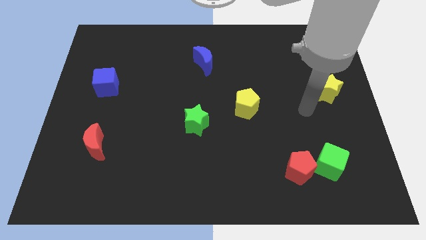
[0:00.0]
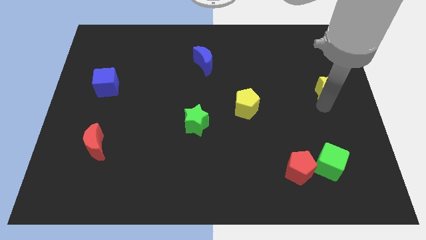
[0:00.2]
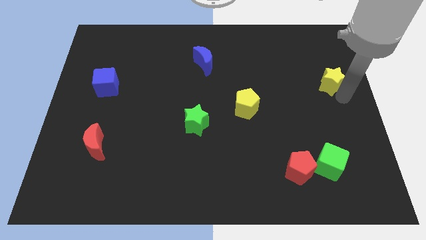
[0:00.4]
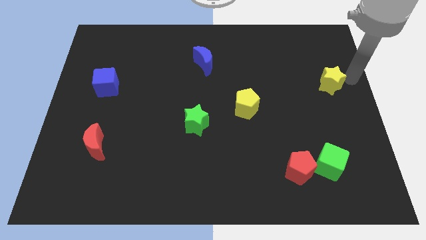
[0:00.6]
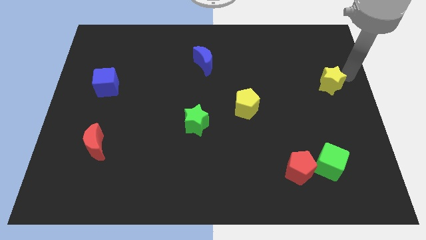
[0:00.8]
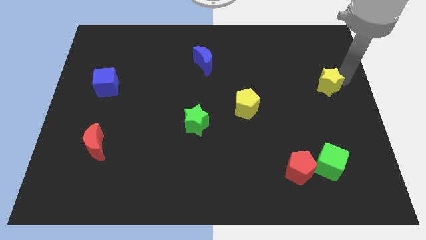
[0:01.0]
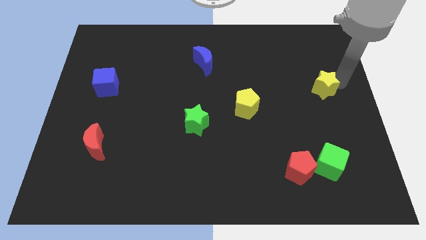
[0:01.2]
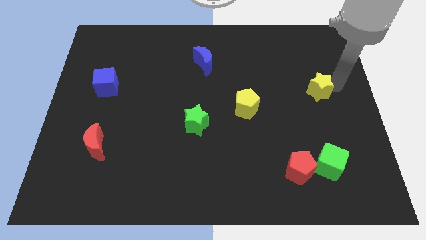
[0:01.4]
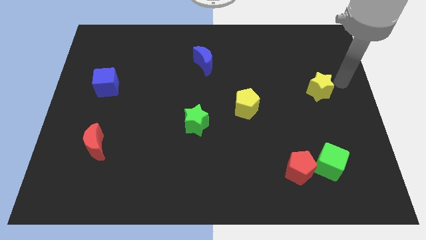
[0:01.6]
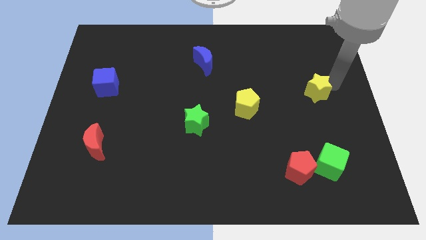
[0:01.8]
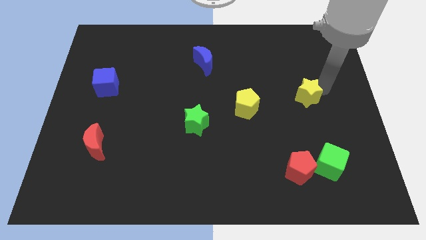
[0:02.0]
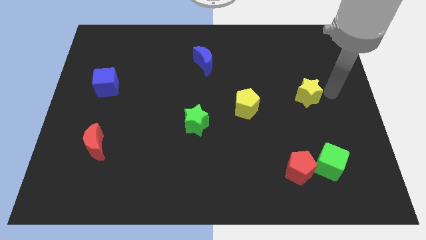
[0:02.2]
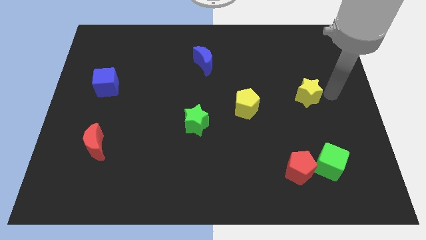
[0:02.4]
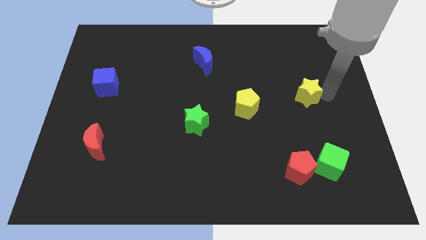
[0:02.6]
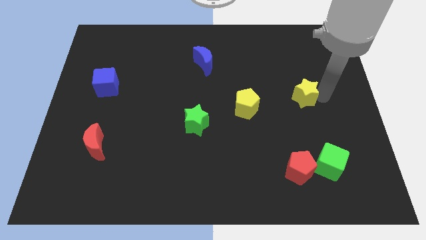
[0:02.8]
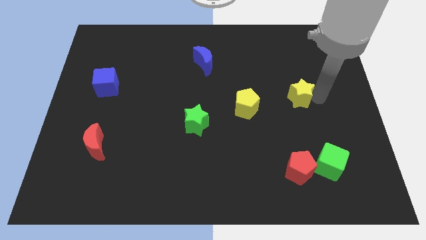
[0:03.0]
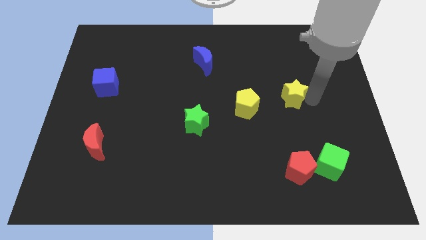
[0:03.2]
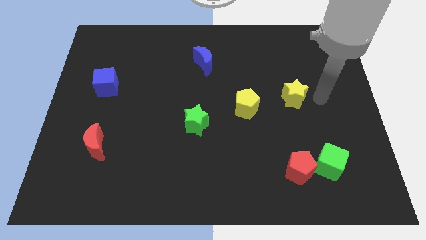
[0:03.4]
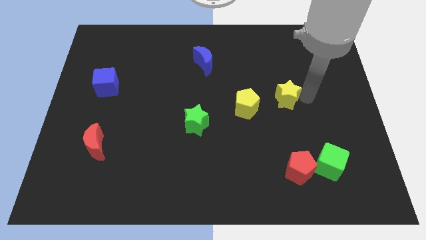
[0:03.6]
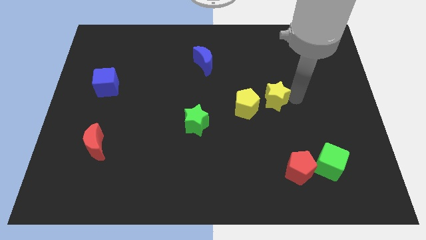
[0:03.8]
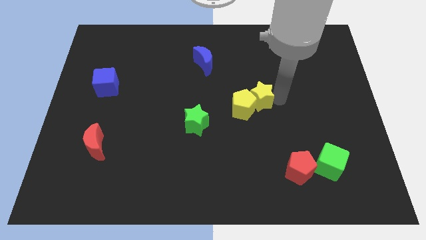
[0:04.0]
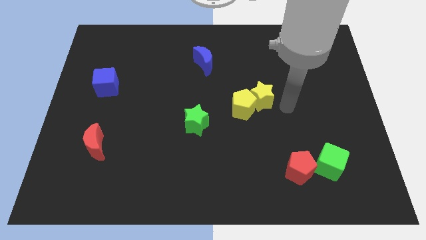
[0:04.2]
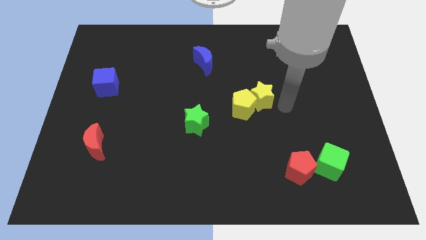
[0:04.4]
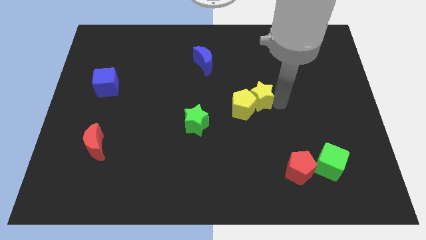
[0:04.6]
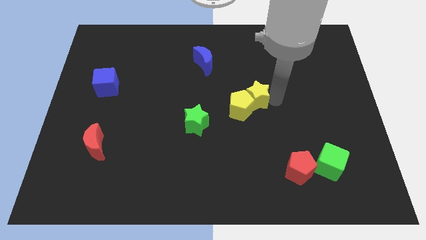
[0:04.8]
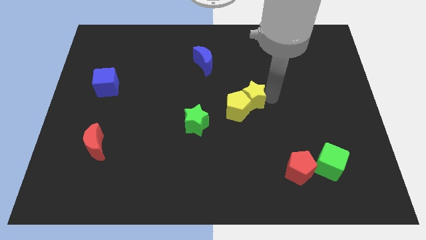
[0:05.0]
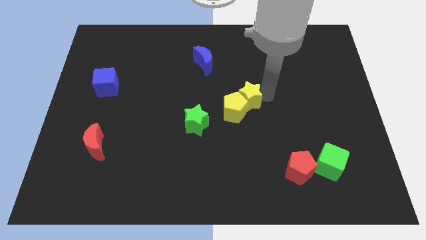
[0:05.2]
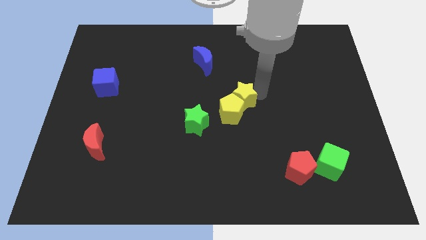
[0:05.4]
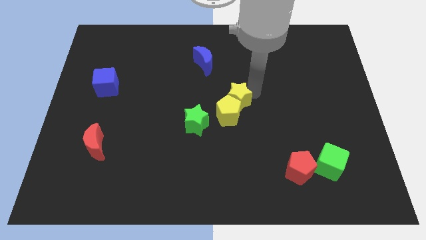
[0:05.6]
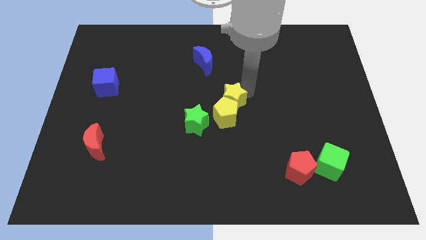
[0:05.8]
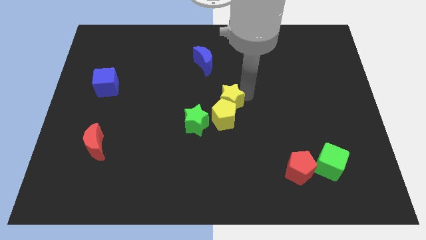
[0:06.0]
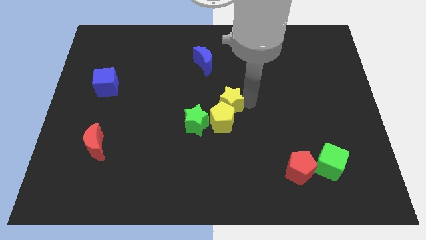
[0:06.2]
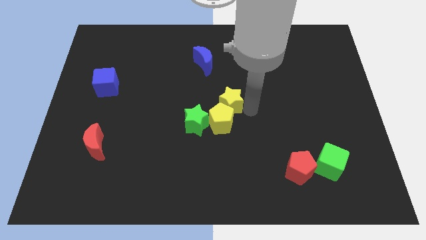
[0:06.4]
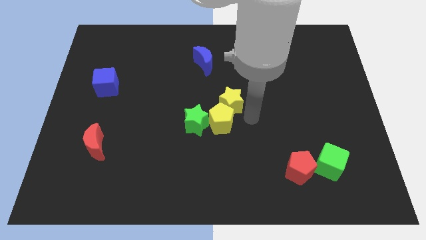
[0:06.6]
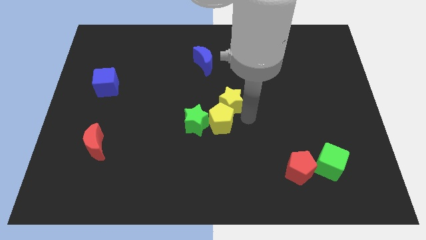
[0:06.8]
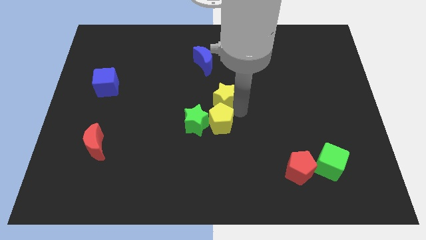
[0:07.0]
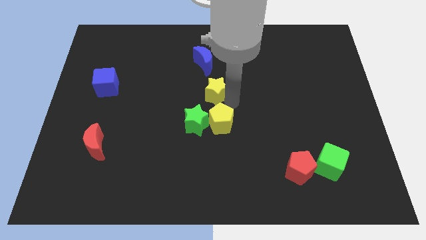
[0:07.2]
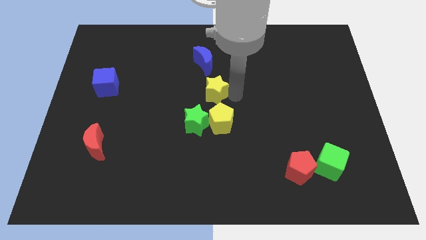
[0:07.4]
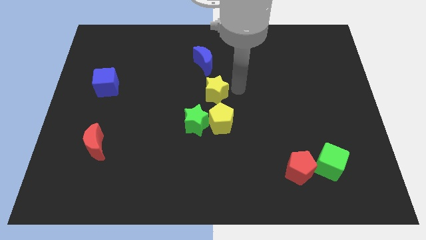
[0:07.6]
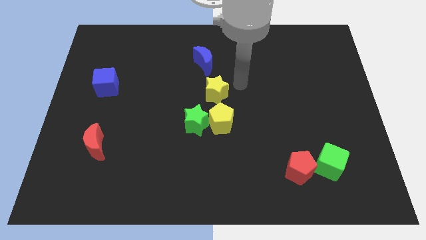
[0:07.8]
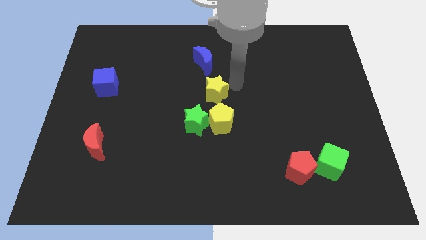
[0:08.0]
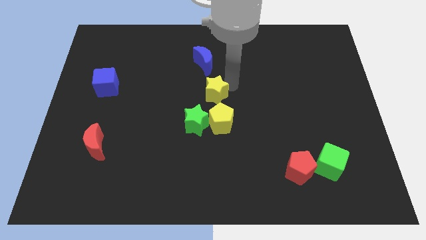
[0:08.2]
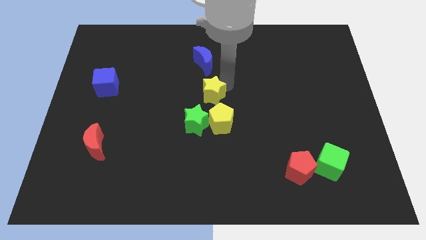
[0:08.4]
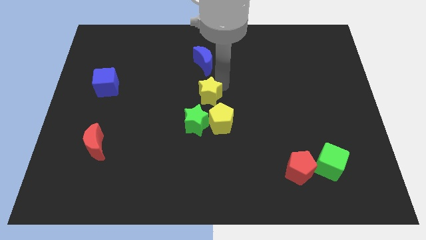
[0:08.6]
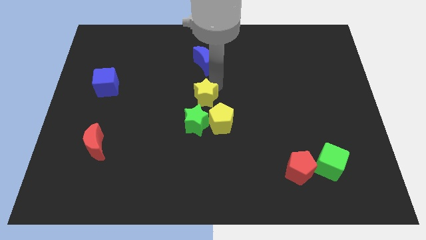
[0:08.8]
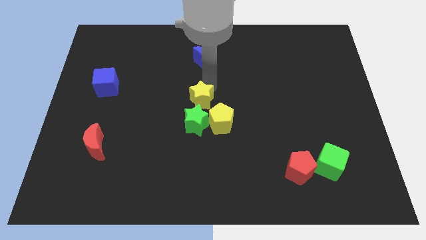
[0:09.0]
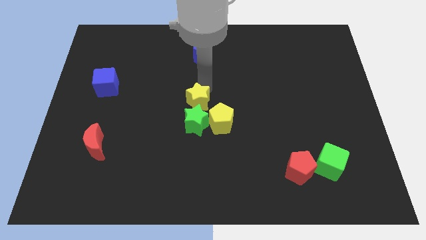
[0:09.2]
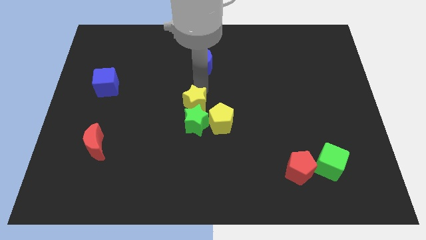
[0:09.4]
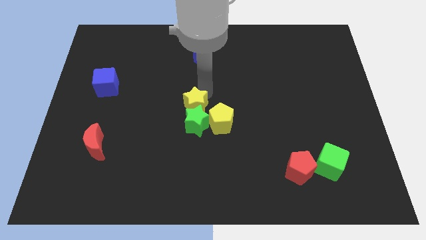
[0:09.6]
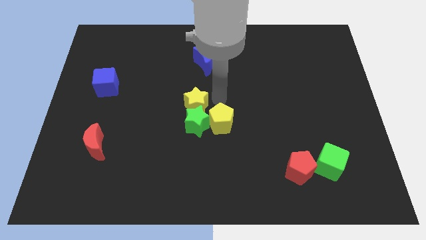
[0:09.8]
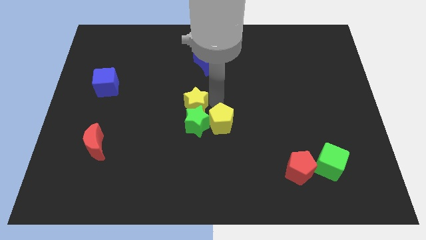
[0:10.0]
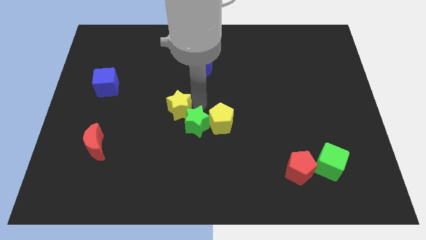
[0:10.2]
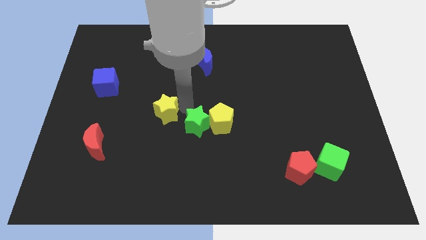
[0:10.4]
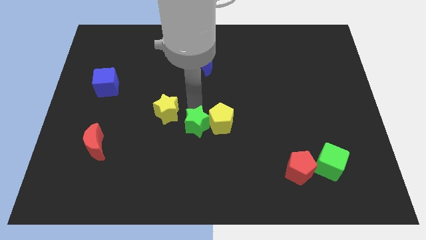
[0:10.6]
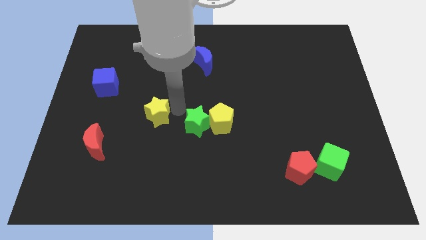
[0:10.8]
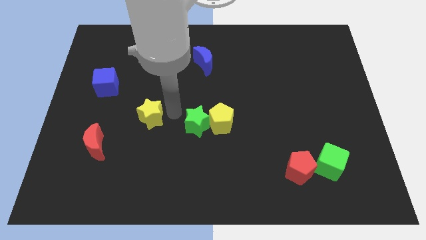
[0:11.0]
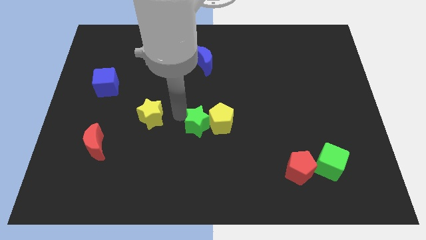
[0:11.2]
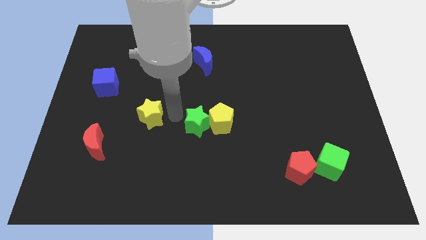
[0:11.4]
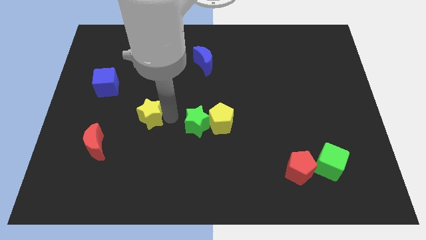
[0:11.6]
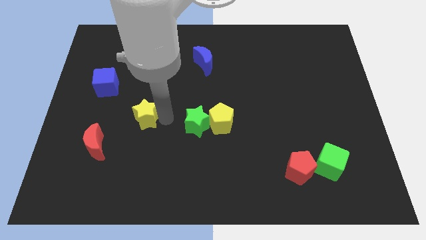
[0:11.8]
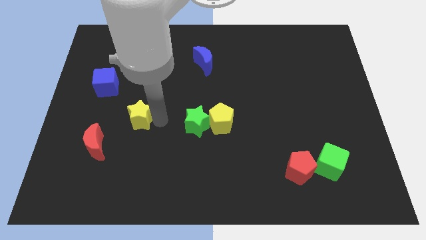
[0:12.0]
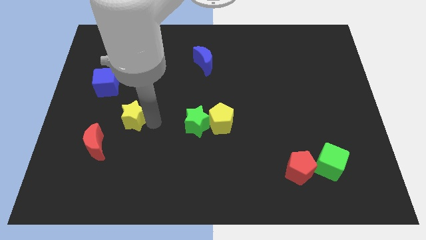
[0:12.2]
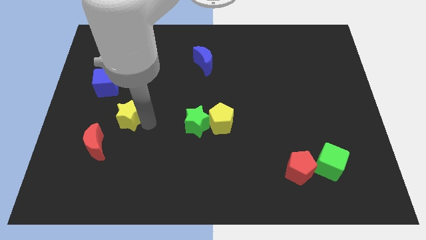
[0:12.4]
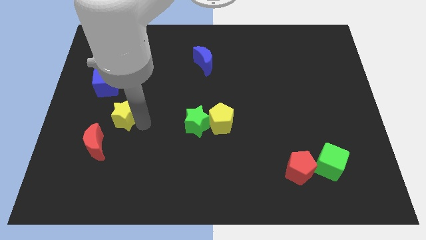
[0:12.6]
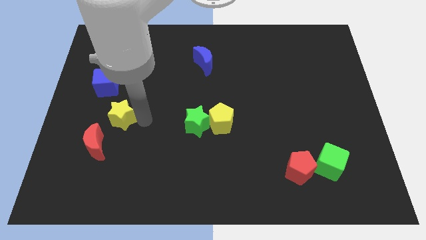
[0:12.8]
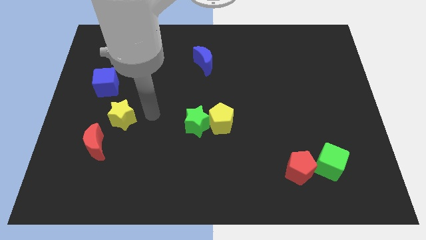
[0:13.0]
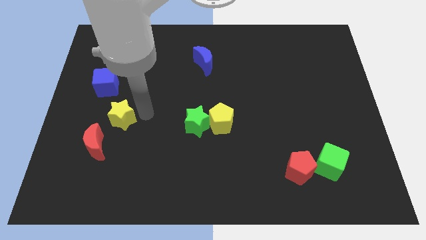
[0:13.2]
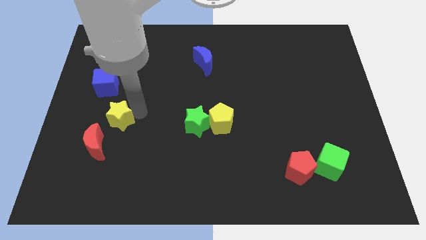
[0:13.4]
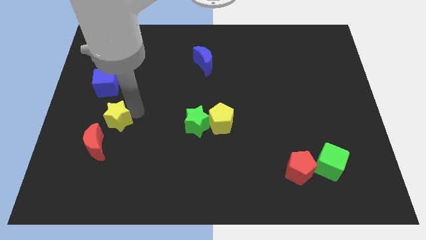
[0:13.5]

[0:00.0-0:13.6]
put the yellow star to the bottom side of the blue cube
